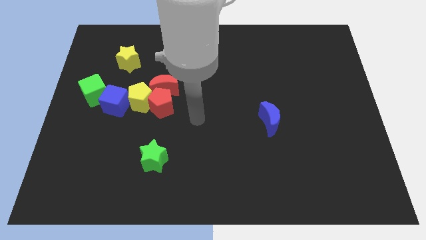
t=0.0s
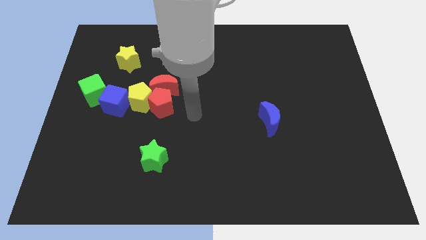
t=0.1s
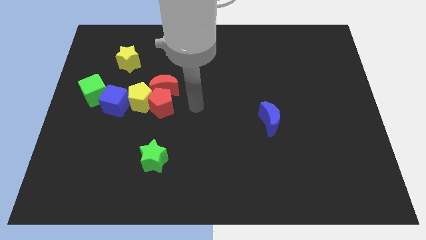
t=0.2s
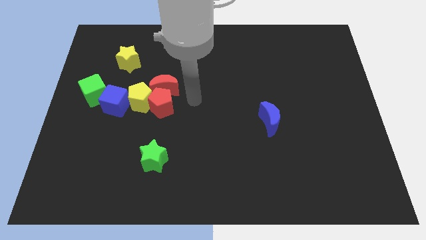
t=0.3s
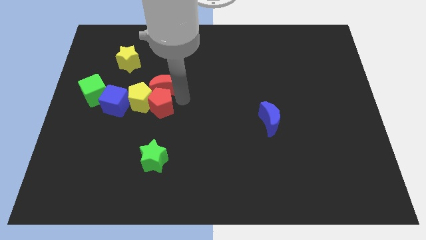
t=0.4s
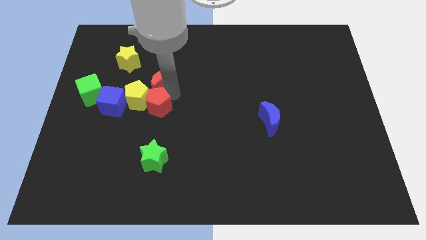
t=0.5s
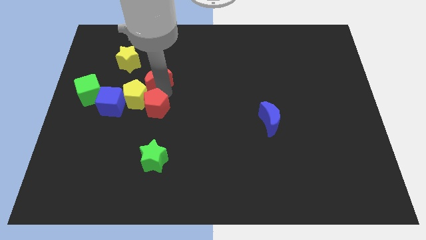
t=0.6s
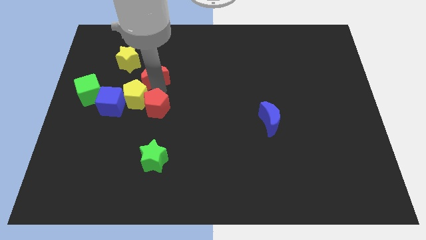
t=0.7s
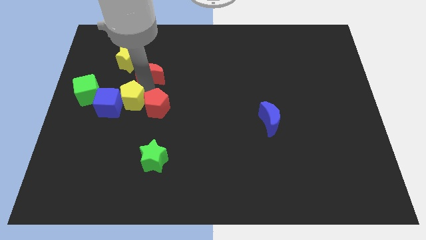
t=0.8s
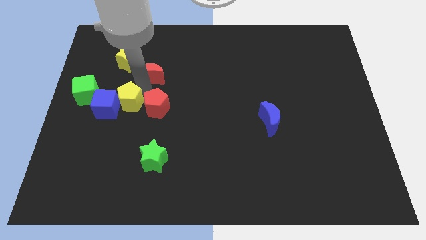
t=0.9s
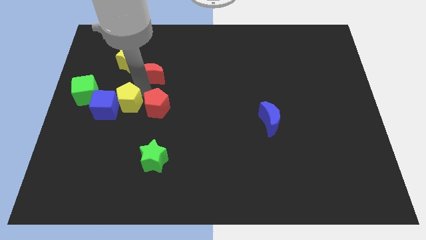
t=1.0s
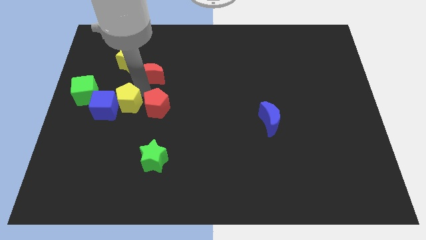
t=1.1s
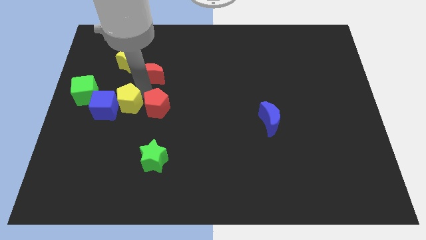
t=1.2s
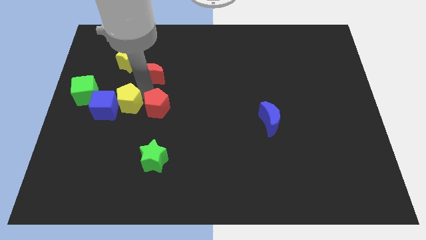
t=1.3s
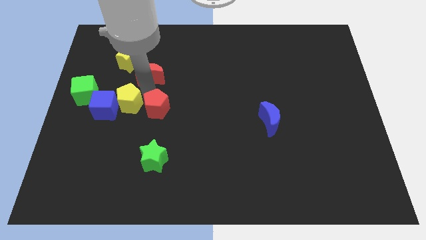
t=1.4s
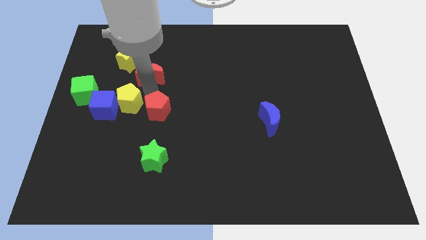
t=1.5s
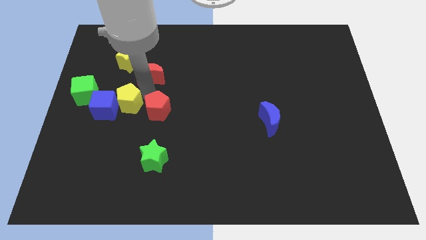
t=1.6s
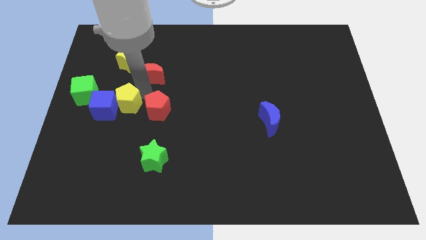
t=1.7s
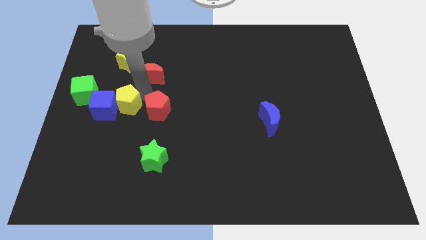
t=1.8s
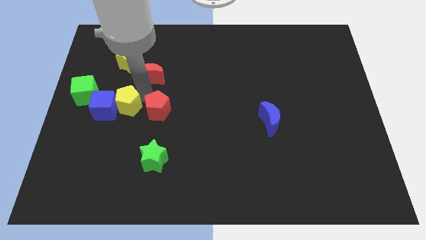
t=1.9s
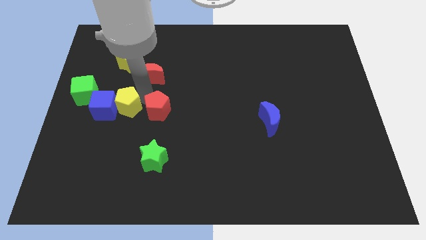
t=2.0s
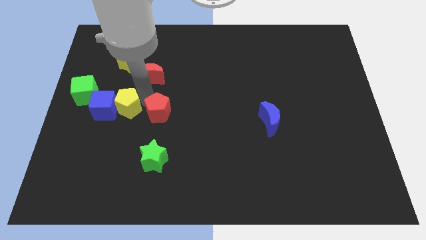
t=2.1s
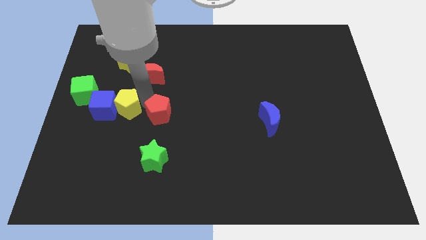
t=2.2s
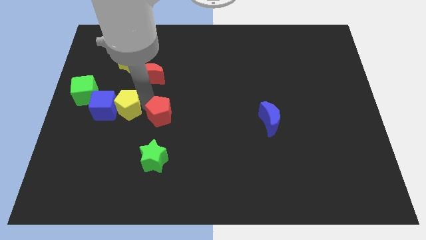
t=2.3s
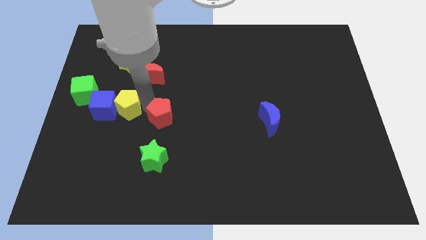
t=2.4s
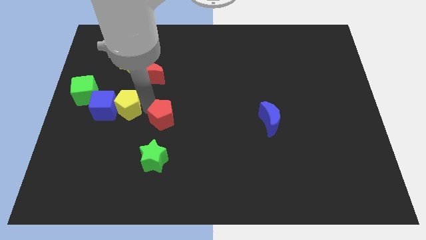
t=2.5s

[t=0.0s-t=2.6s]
separate the red pentagon from the red moon and yellow pentagon

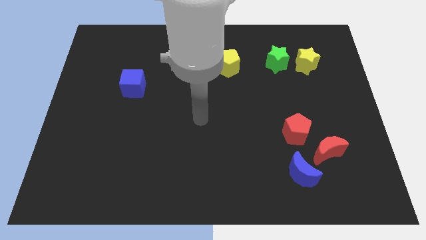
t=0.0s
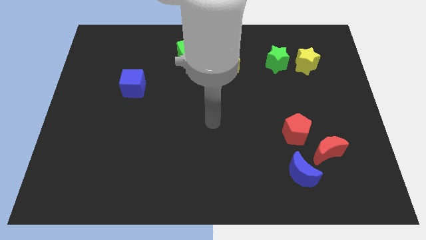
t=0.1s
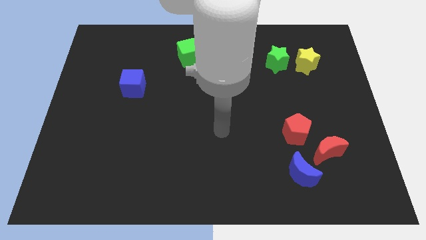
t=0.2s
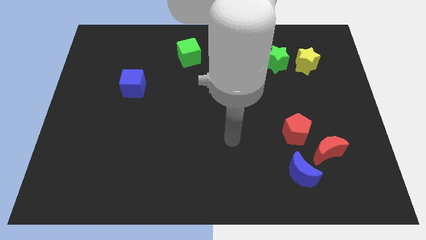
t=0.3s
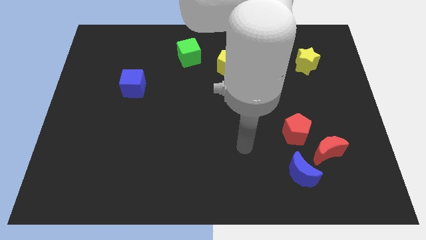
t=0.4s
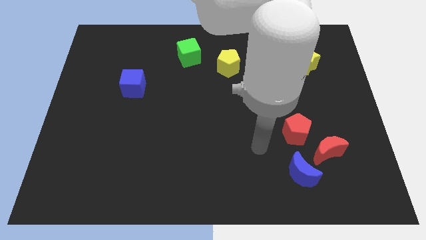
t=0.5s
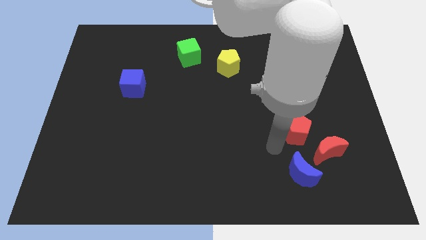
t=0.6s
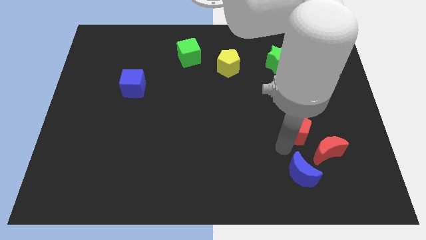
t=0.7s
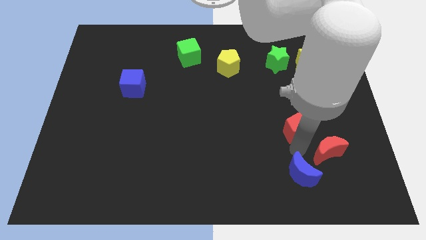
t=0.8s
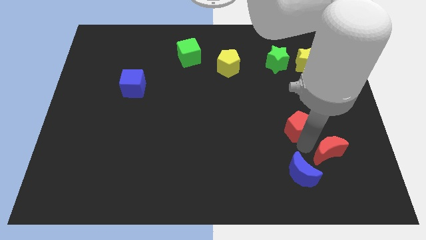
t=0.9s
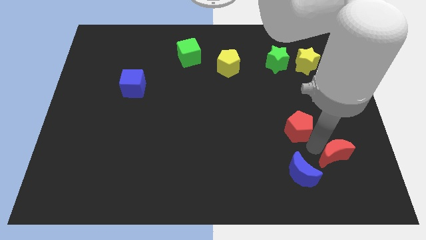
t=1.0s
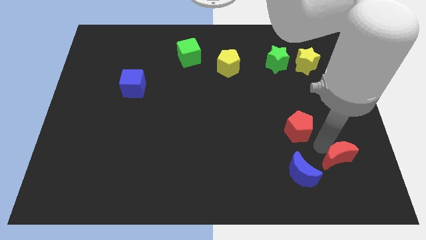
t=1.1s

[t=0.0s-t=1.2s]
separate the red pentagon from the red moon

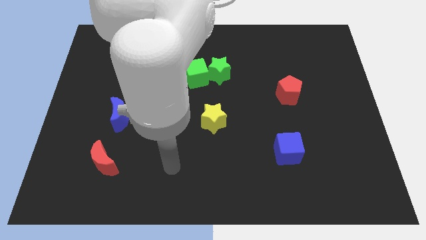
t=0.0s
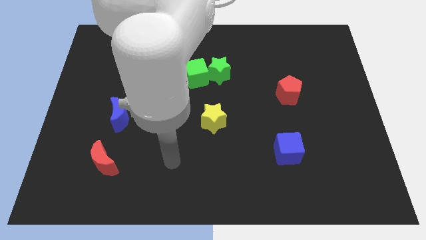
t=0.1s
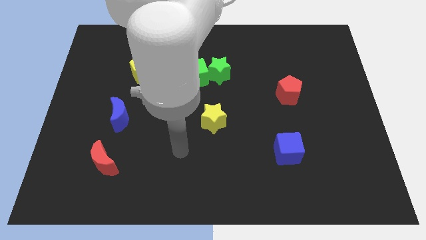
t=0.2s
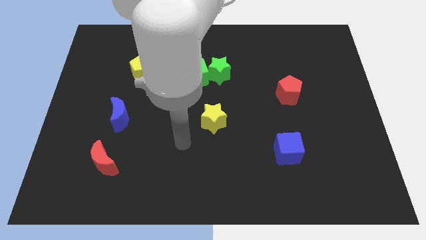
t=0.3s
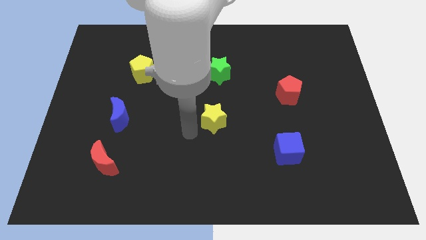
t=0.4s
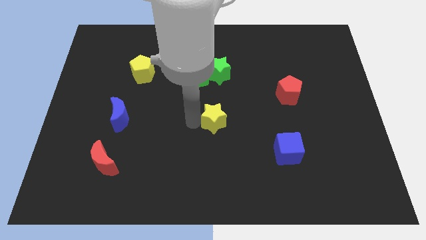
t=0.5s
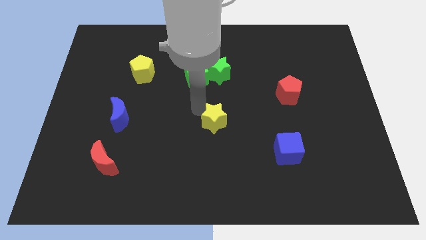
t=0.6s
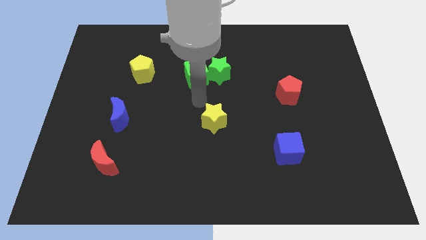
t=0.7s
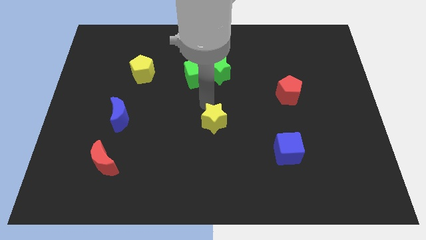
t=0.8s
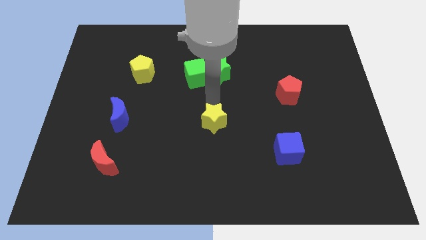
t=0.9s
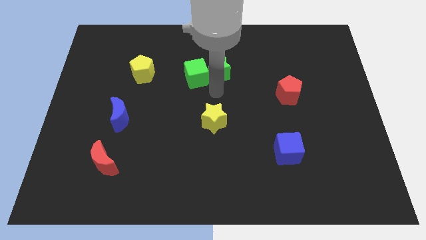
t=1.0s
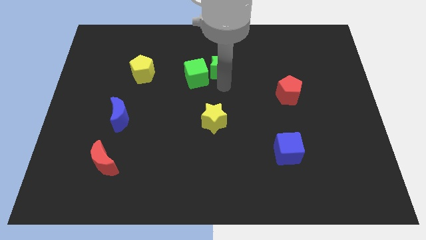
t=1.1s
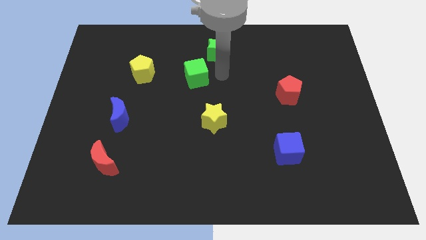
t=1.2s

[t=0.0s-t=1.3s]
move the green cube away from the green star

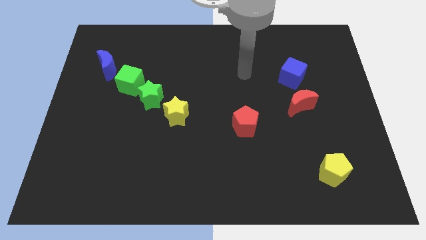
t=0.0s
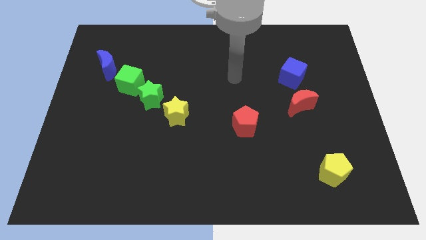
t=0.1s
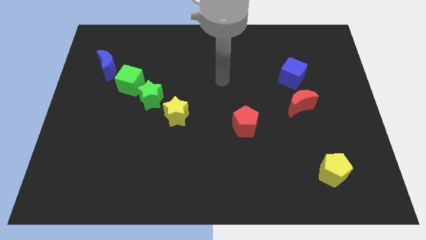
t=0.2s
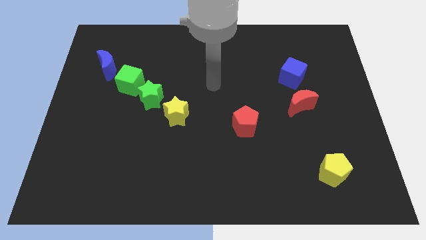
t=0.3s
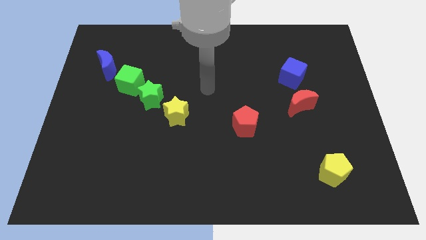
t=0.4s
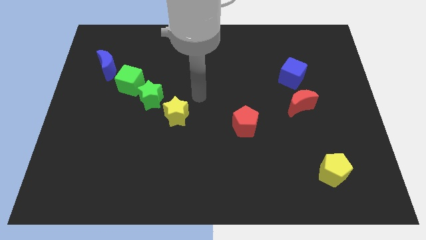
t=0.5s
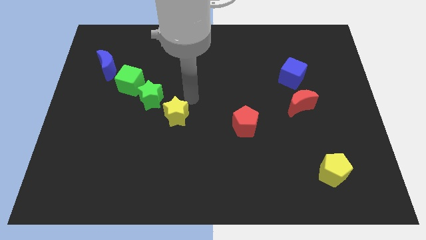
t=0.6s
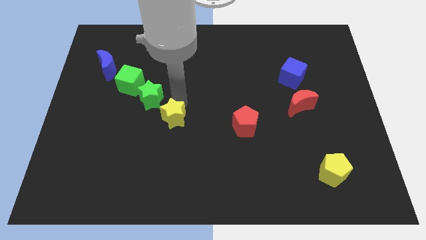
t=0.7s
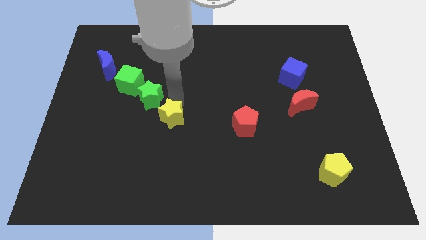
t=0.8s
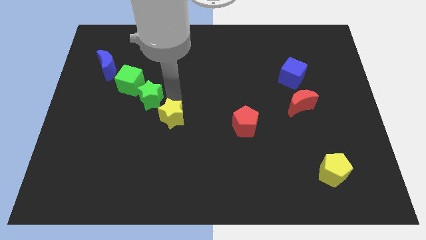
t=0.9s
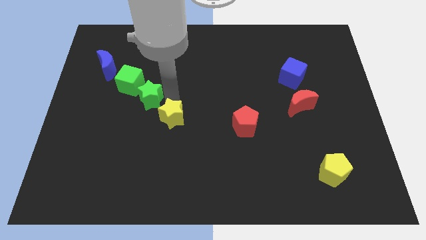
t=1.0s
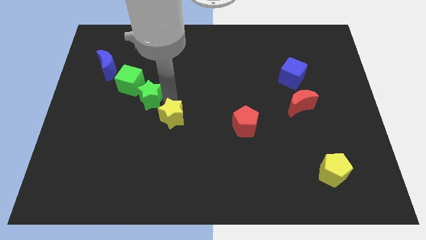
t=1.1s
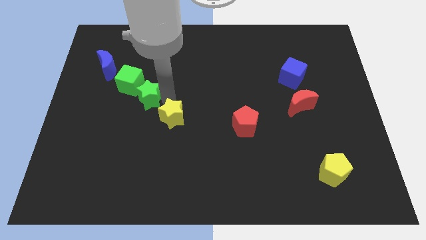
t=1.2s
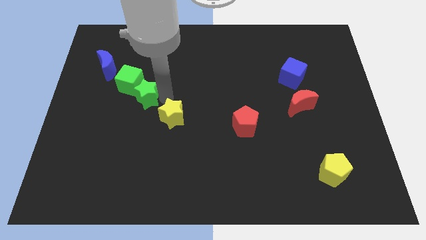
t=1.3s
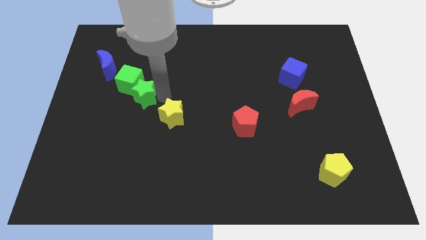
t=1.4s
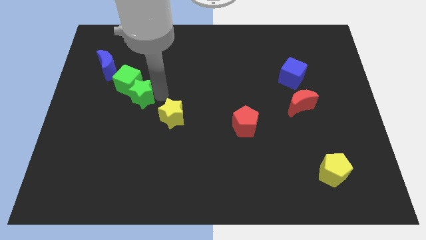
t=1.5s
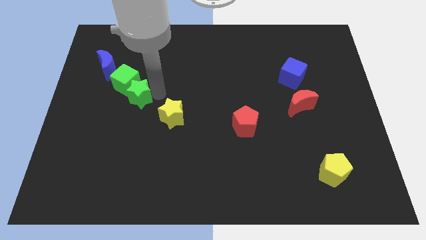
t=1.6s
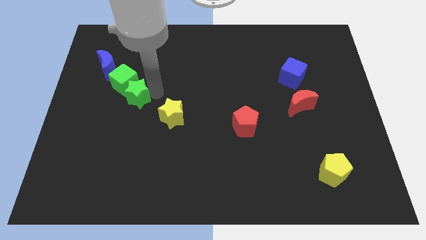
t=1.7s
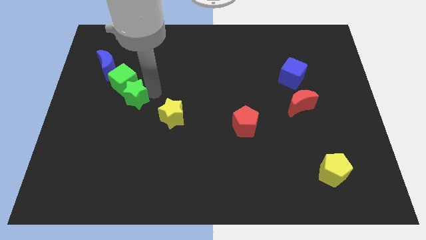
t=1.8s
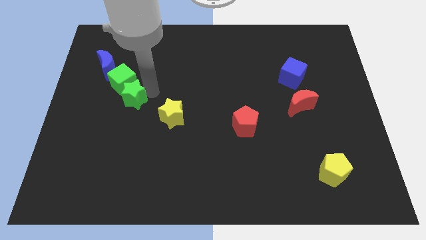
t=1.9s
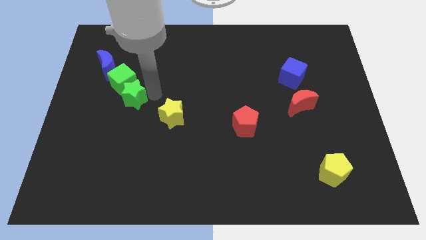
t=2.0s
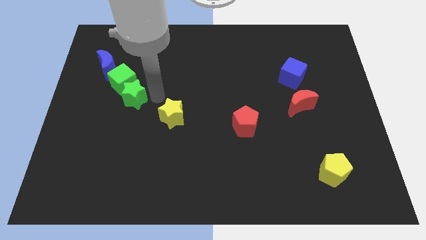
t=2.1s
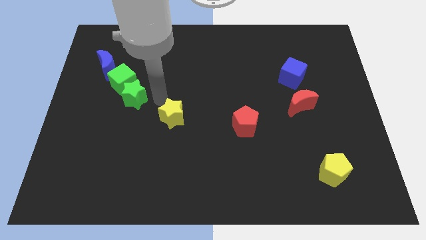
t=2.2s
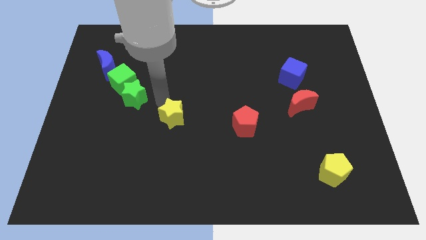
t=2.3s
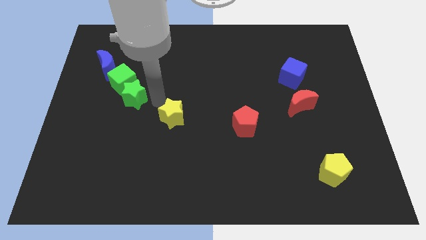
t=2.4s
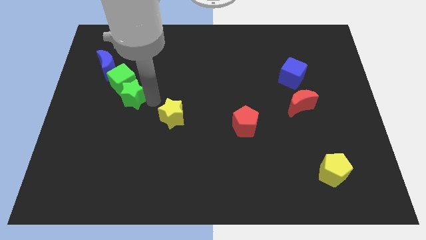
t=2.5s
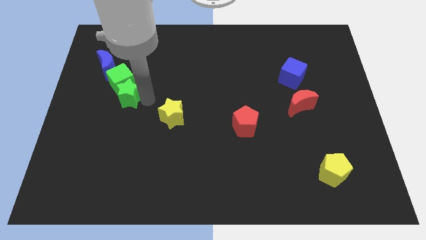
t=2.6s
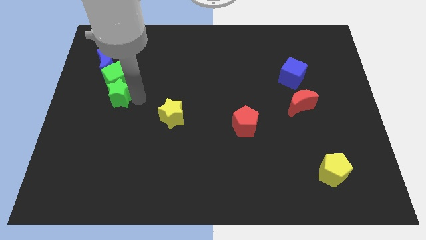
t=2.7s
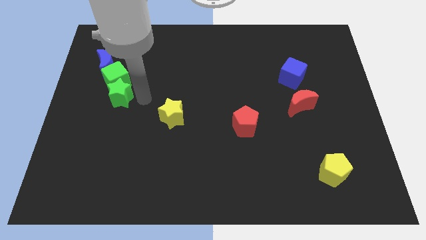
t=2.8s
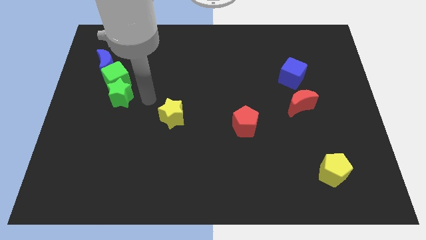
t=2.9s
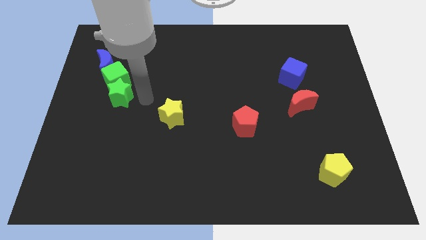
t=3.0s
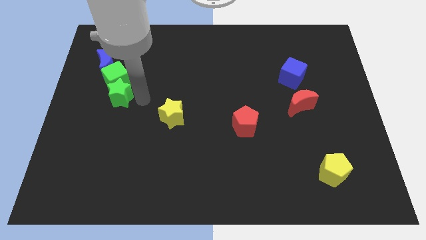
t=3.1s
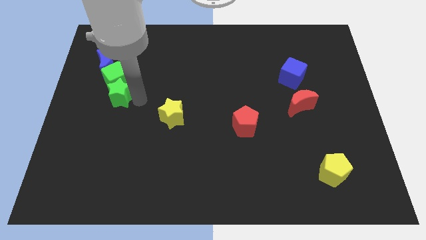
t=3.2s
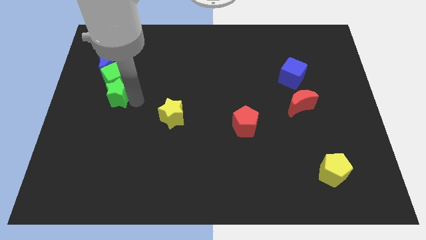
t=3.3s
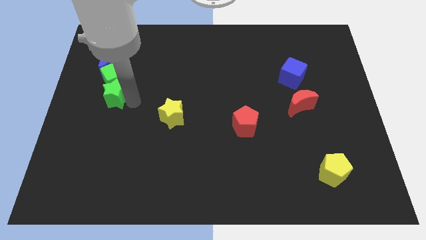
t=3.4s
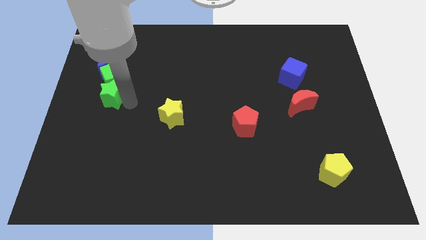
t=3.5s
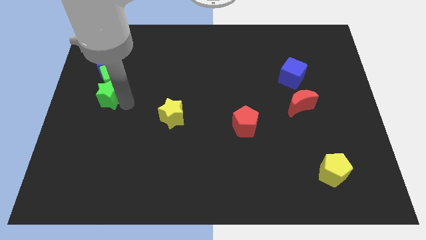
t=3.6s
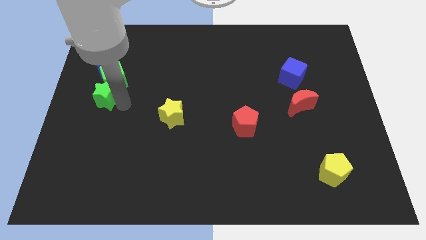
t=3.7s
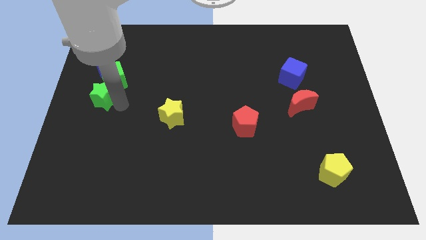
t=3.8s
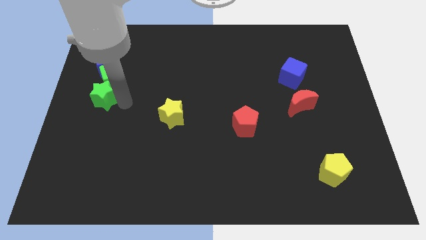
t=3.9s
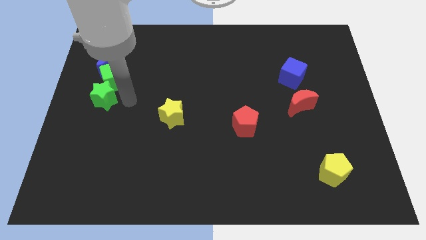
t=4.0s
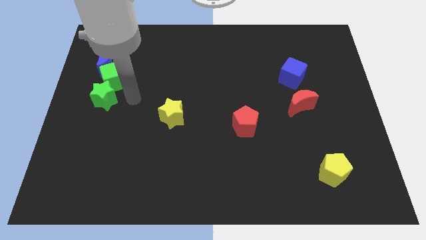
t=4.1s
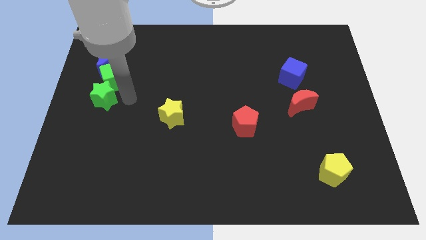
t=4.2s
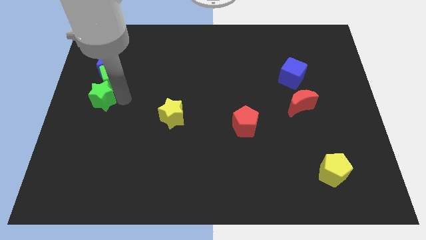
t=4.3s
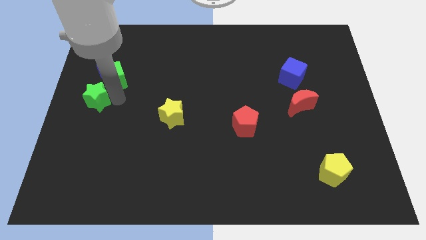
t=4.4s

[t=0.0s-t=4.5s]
separate the green star from the green cube and yellow star
